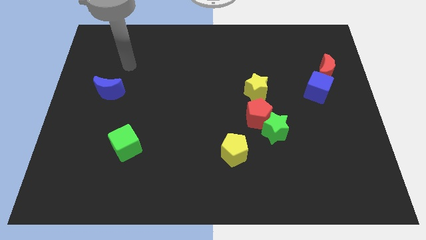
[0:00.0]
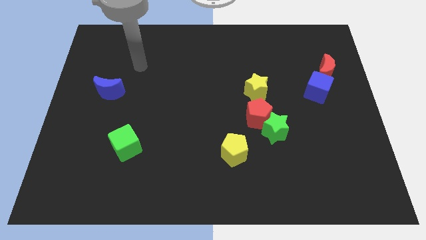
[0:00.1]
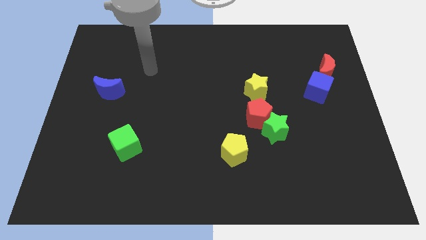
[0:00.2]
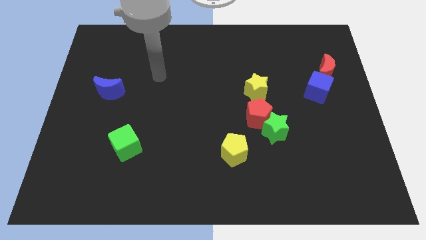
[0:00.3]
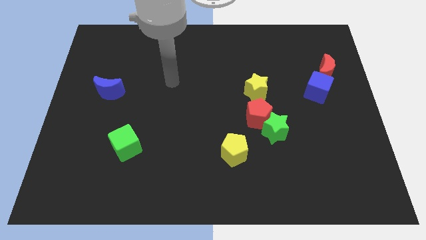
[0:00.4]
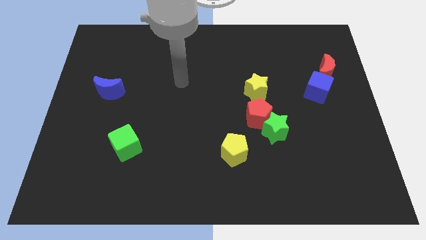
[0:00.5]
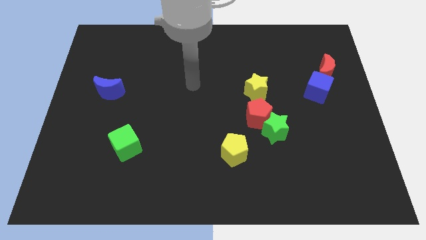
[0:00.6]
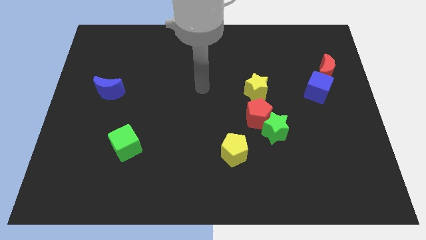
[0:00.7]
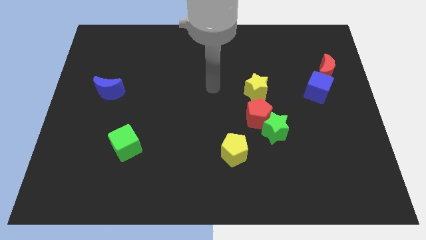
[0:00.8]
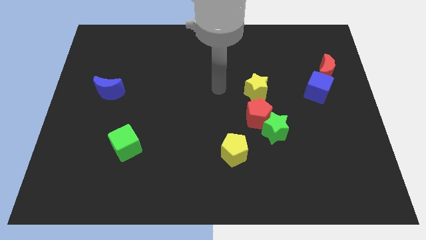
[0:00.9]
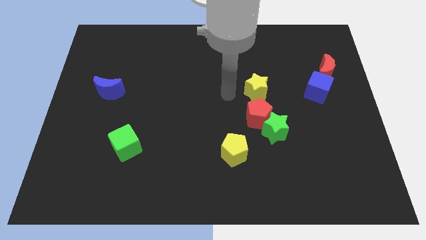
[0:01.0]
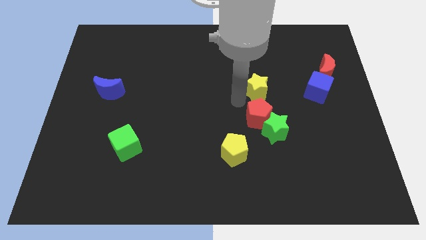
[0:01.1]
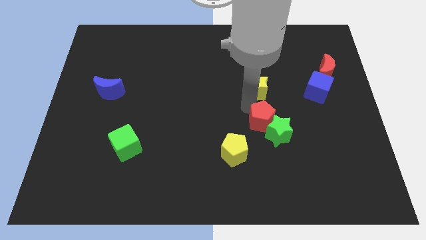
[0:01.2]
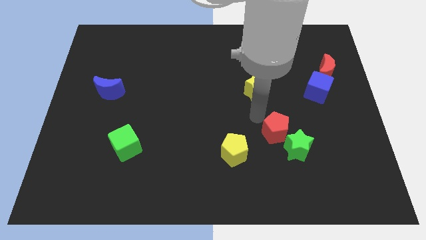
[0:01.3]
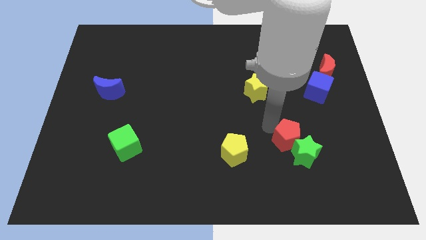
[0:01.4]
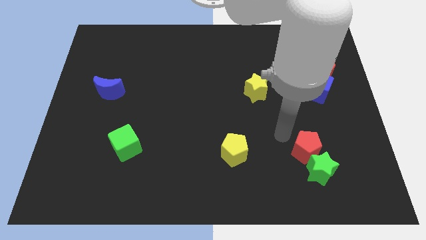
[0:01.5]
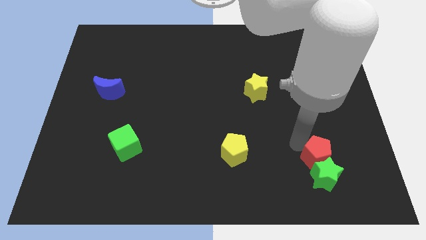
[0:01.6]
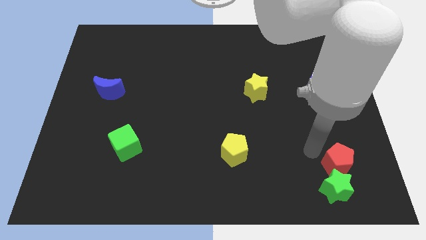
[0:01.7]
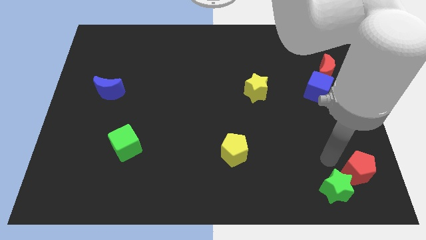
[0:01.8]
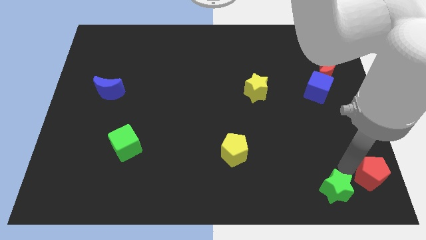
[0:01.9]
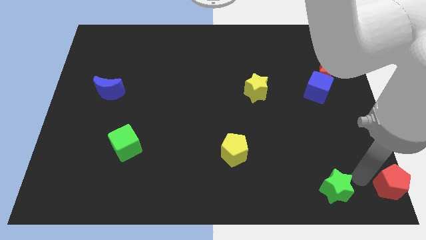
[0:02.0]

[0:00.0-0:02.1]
separate the green star from the red pentagon

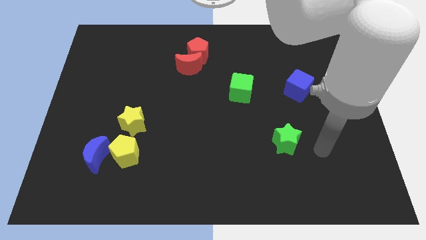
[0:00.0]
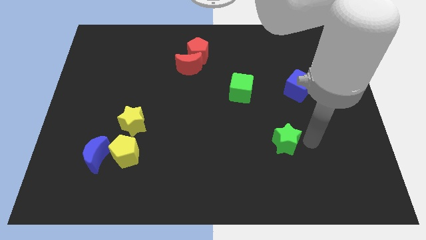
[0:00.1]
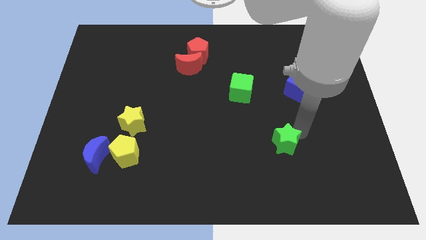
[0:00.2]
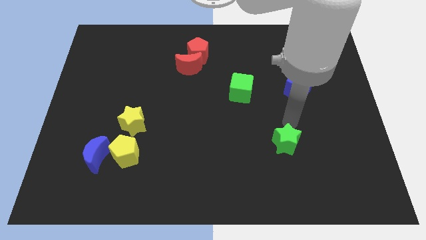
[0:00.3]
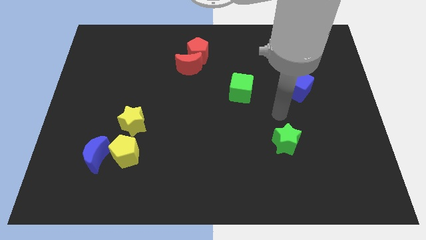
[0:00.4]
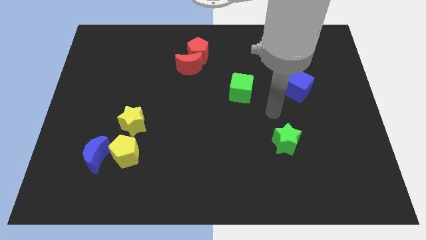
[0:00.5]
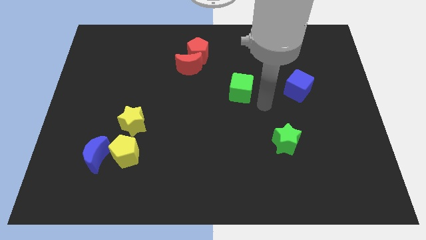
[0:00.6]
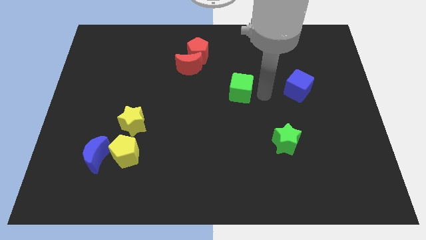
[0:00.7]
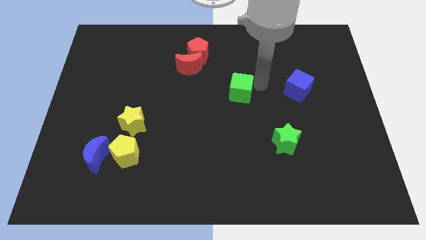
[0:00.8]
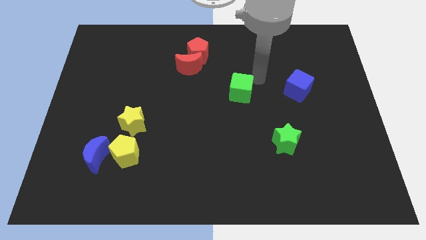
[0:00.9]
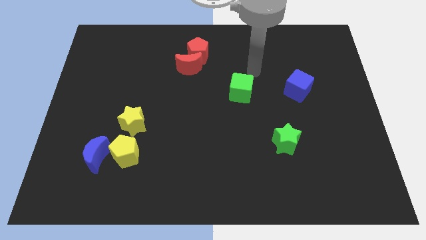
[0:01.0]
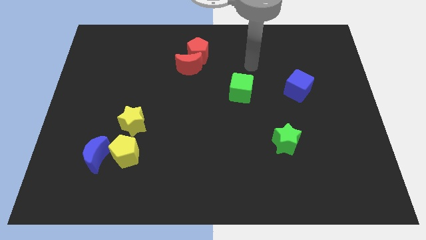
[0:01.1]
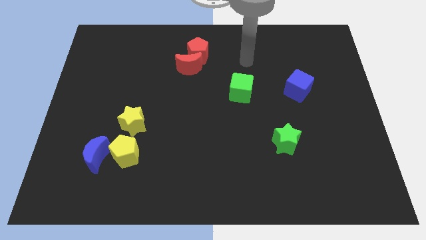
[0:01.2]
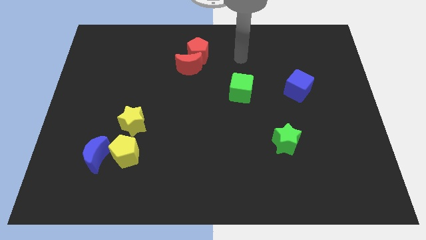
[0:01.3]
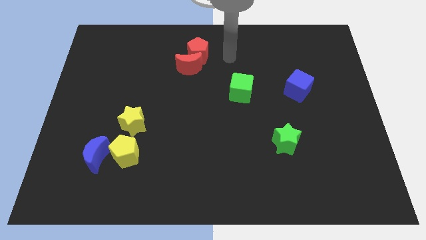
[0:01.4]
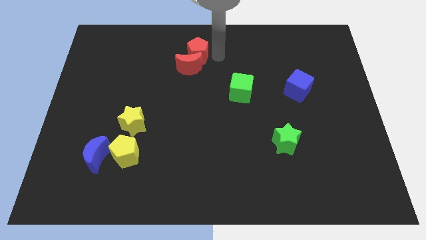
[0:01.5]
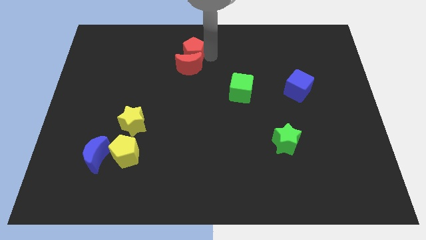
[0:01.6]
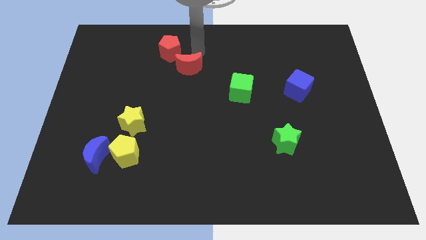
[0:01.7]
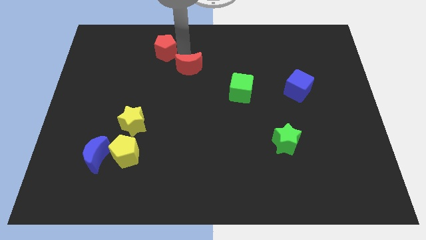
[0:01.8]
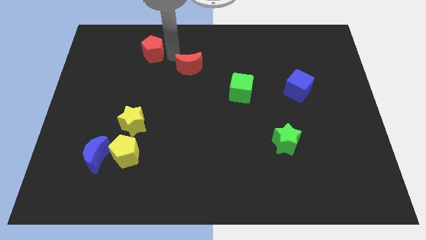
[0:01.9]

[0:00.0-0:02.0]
pull the red moon apart from the red pentagon

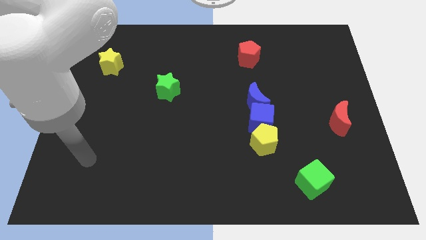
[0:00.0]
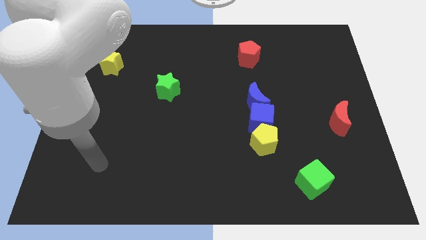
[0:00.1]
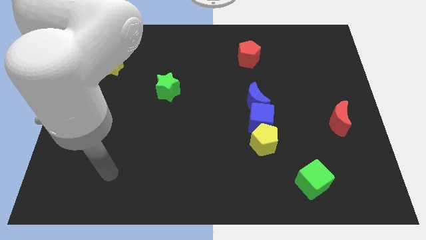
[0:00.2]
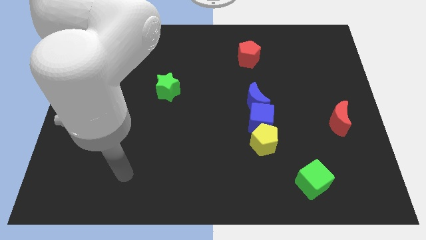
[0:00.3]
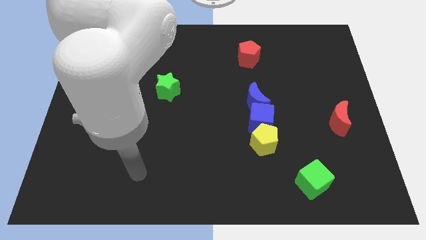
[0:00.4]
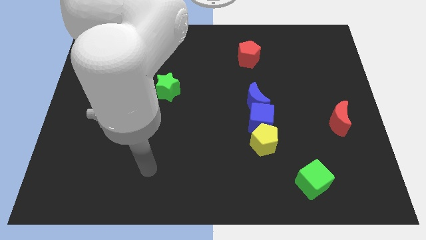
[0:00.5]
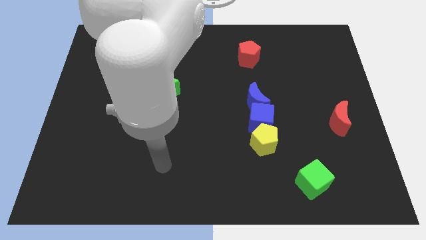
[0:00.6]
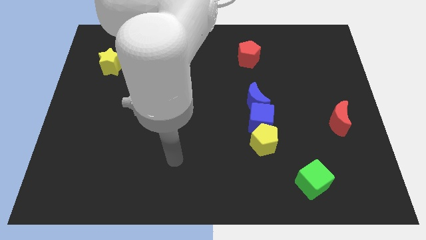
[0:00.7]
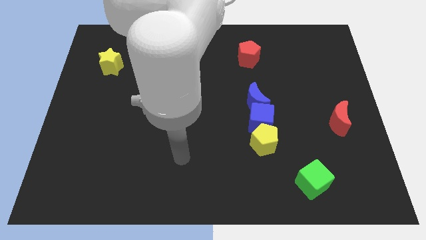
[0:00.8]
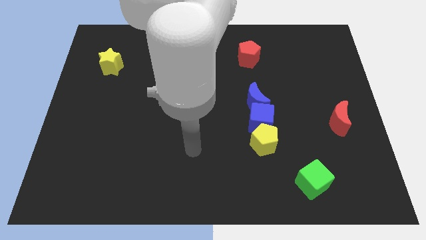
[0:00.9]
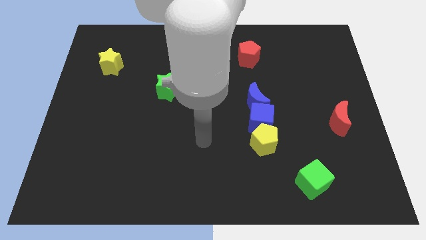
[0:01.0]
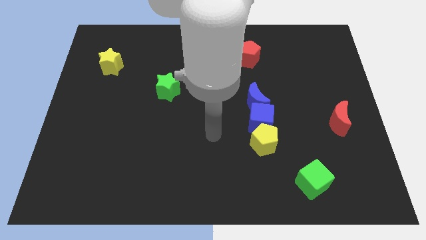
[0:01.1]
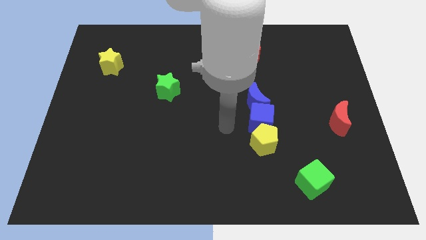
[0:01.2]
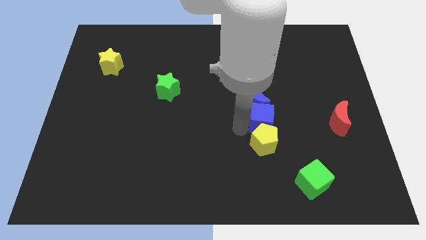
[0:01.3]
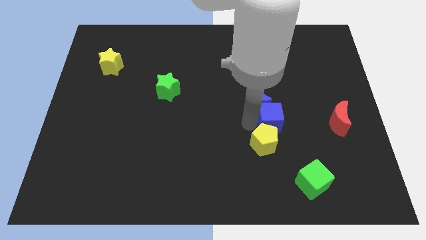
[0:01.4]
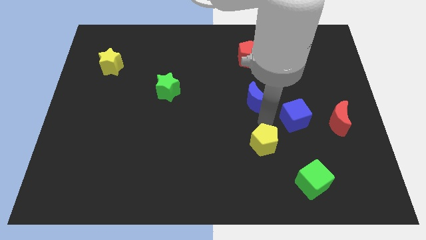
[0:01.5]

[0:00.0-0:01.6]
separate the blue moon from the blue cube

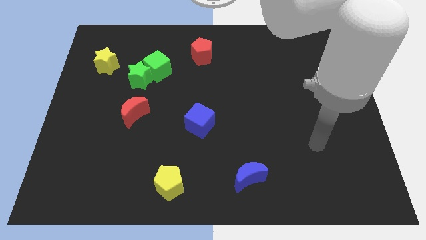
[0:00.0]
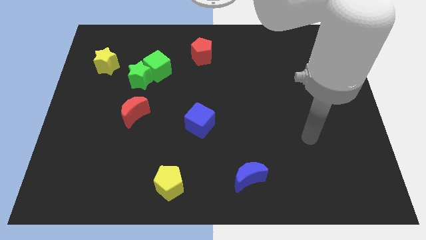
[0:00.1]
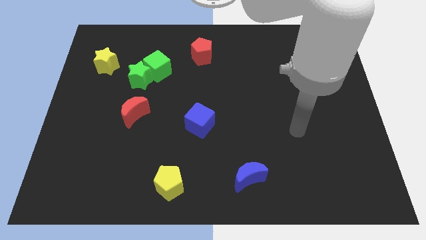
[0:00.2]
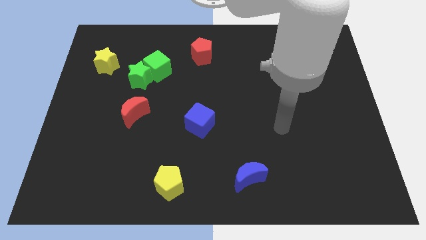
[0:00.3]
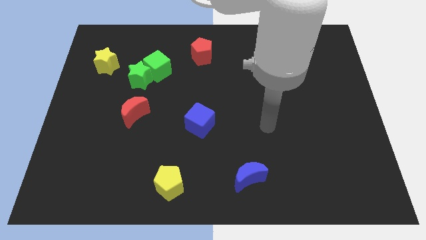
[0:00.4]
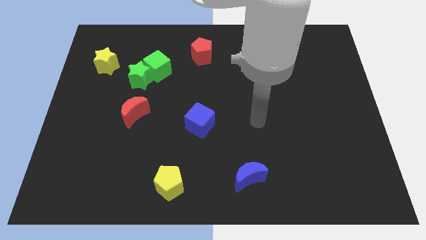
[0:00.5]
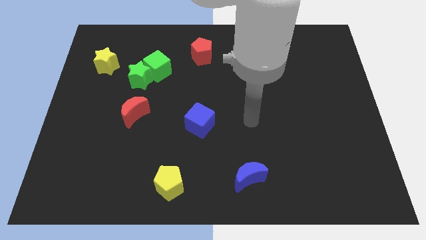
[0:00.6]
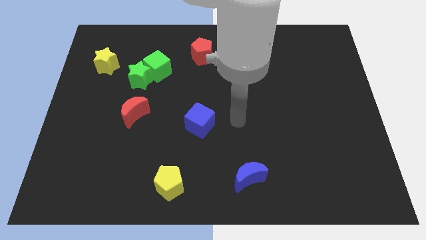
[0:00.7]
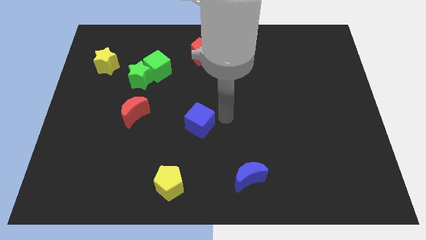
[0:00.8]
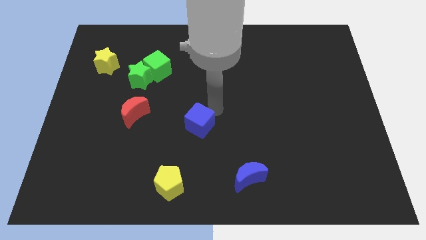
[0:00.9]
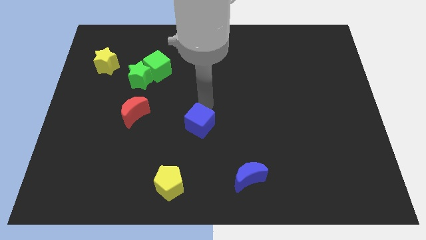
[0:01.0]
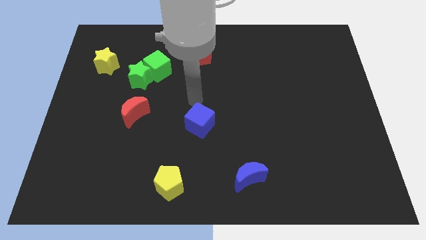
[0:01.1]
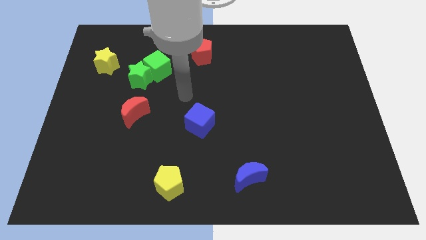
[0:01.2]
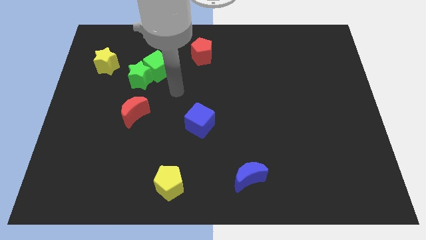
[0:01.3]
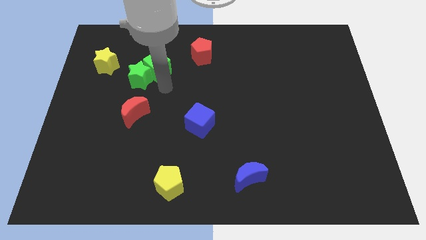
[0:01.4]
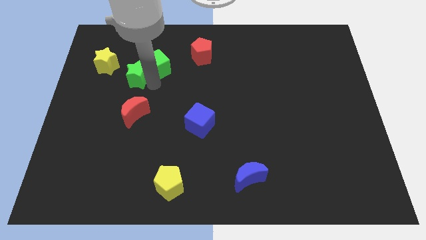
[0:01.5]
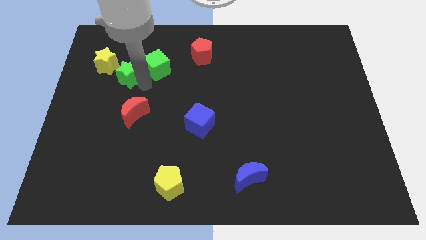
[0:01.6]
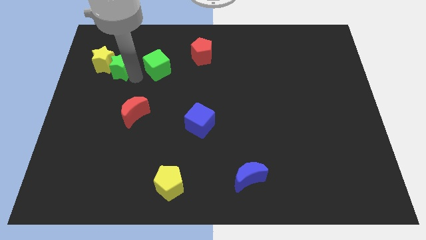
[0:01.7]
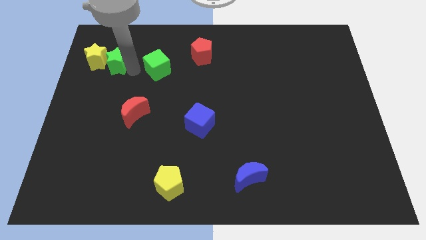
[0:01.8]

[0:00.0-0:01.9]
move the green cube away from the green star

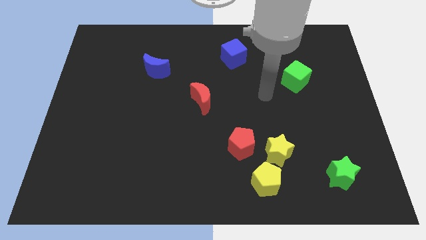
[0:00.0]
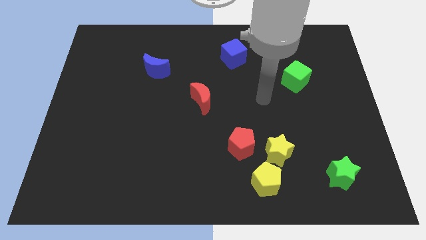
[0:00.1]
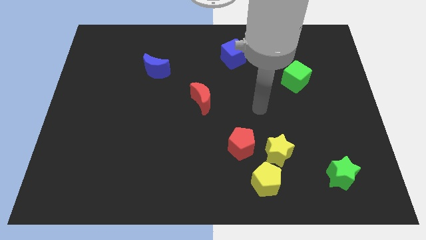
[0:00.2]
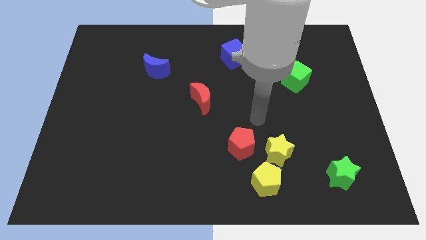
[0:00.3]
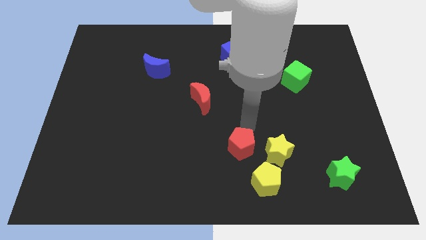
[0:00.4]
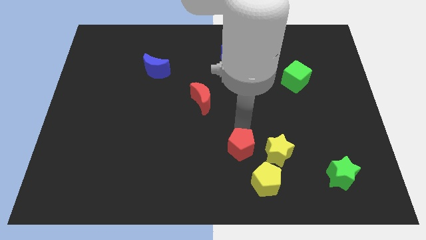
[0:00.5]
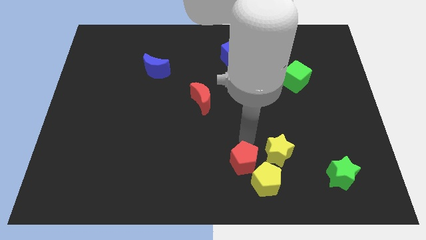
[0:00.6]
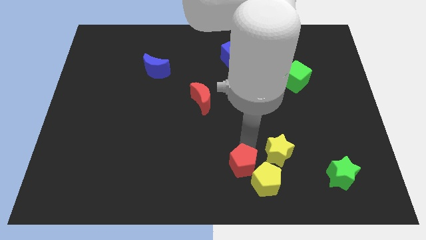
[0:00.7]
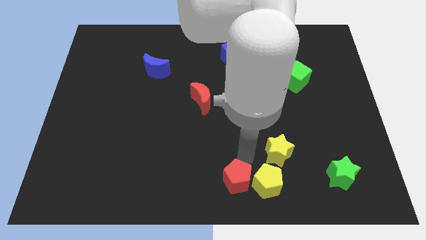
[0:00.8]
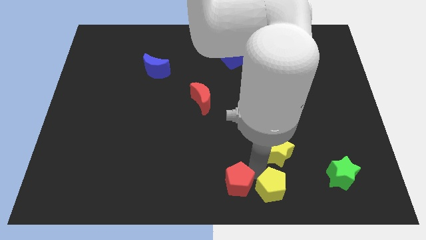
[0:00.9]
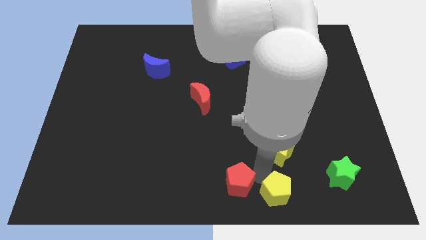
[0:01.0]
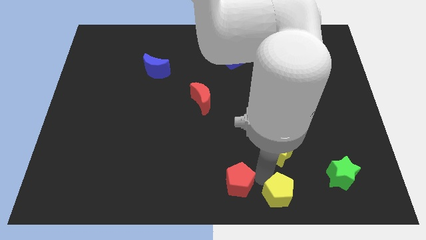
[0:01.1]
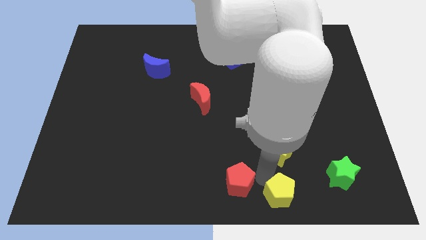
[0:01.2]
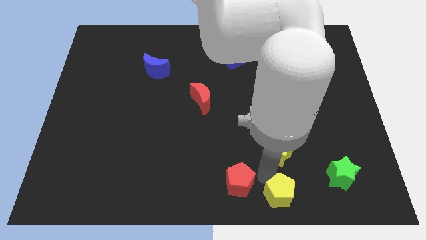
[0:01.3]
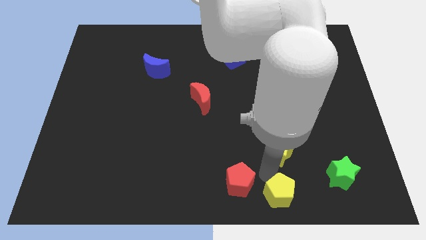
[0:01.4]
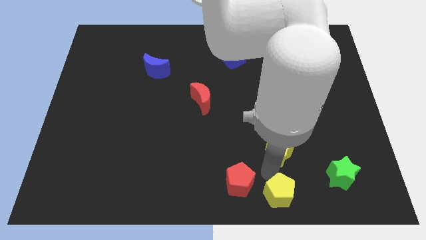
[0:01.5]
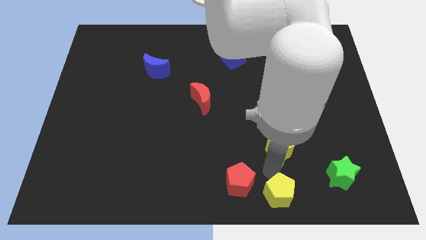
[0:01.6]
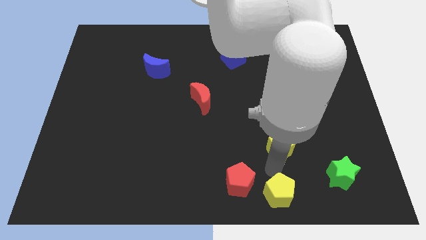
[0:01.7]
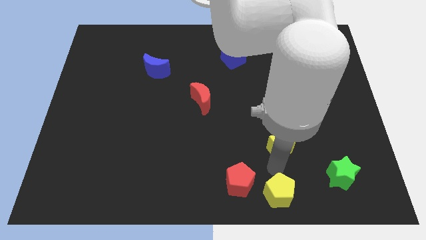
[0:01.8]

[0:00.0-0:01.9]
move the yellow star away from the yellow pentagon and red pentagon

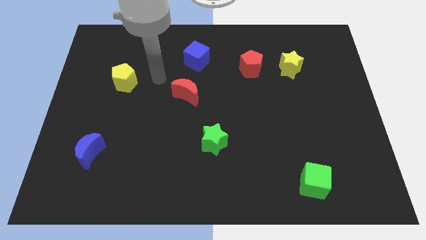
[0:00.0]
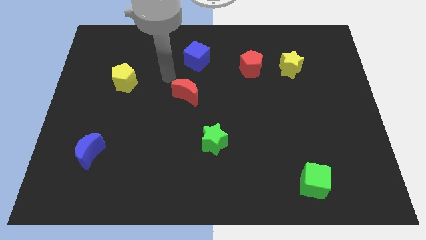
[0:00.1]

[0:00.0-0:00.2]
pull the red pentagon apart from the yellow star
